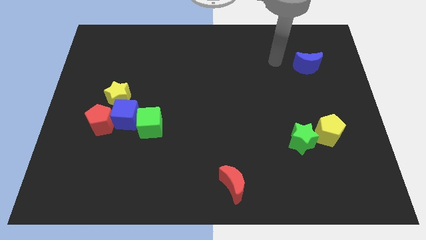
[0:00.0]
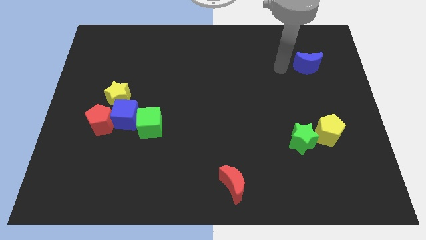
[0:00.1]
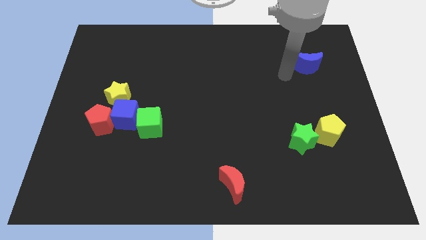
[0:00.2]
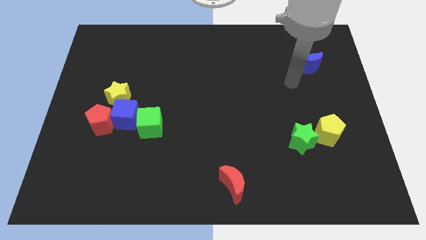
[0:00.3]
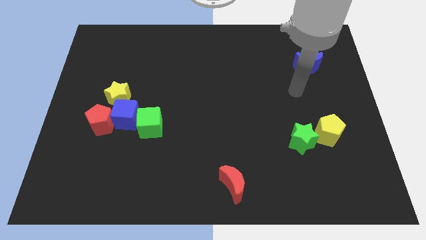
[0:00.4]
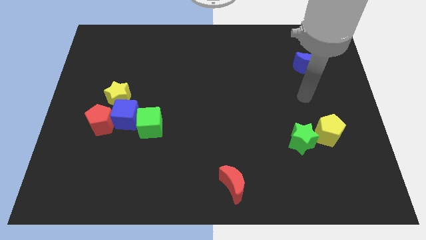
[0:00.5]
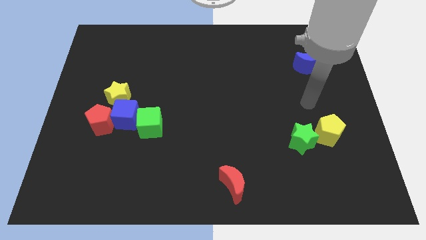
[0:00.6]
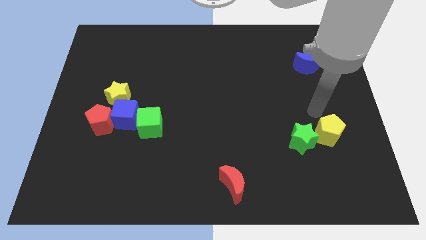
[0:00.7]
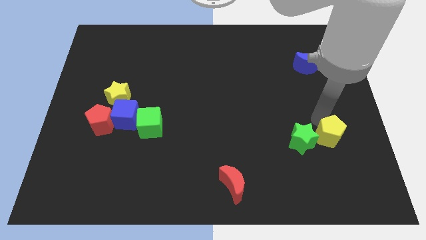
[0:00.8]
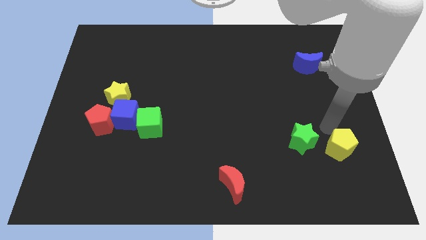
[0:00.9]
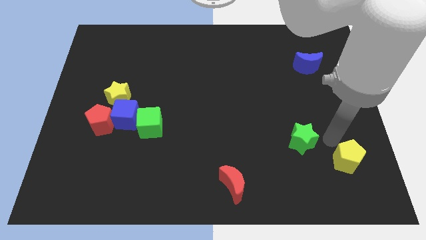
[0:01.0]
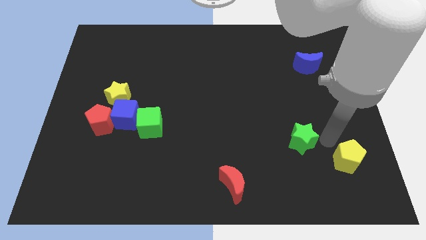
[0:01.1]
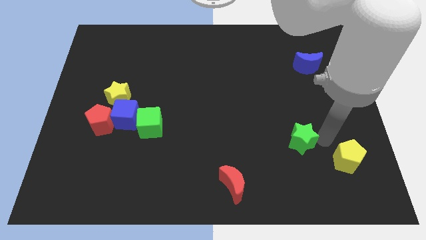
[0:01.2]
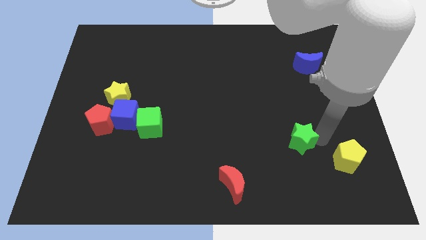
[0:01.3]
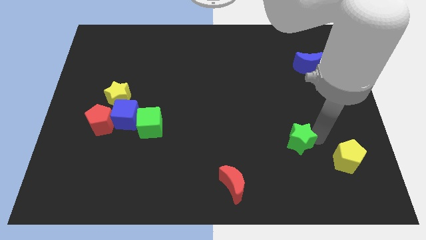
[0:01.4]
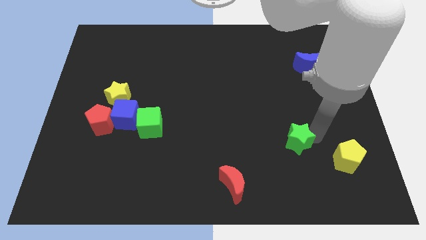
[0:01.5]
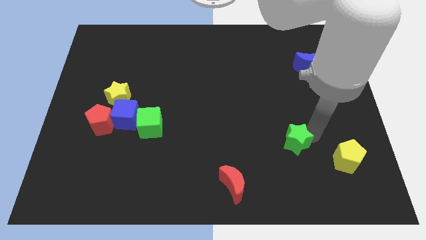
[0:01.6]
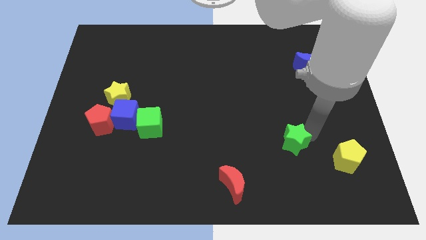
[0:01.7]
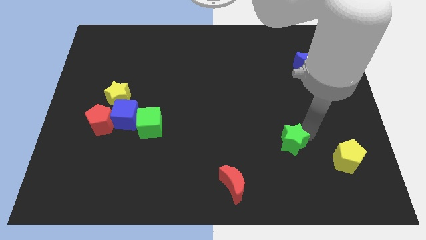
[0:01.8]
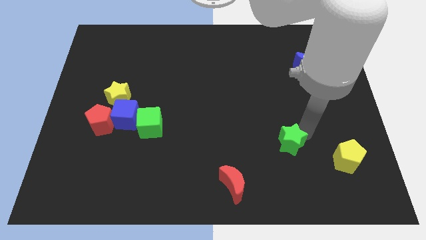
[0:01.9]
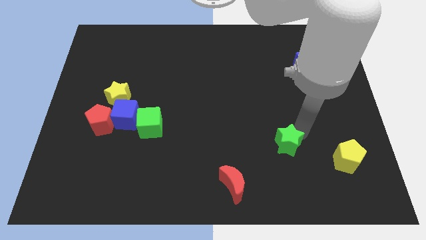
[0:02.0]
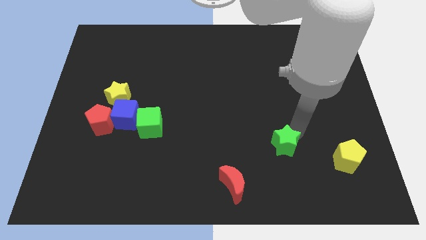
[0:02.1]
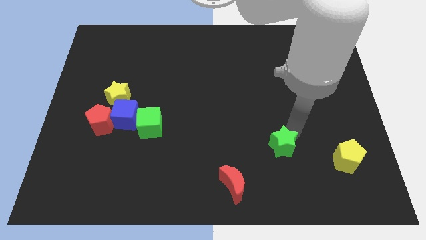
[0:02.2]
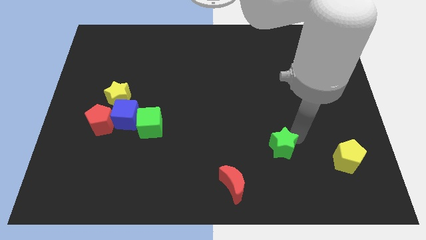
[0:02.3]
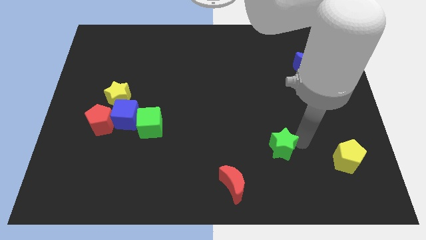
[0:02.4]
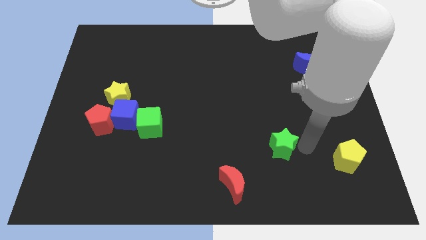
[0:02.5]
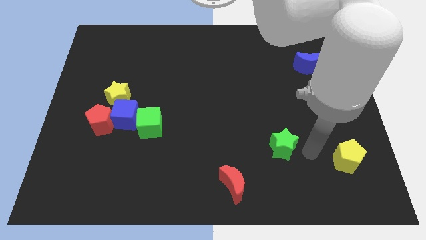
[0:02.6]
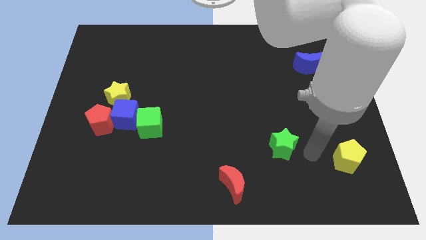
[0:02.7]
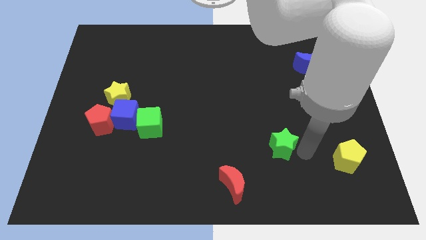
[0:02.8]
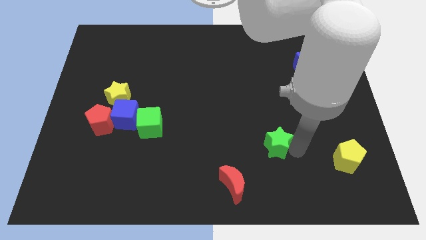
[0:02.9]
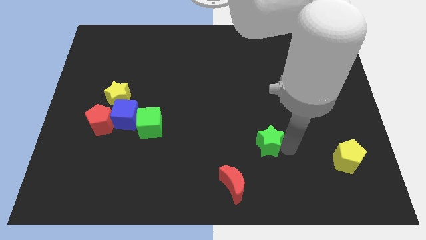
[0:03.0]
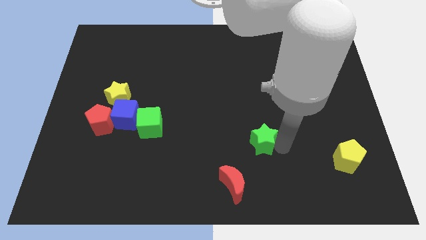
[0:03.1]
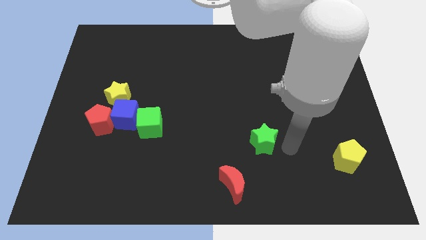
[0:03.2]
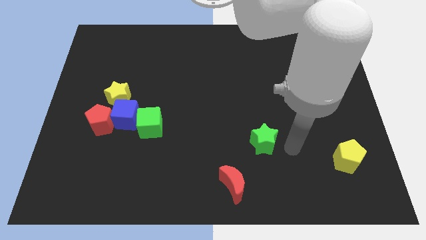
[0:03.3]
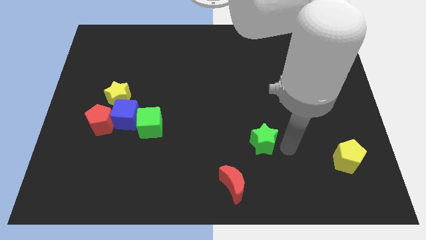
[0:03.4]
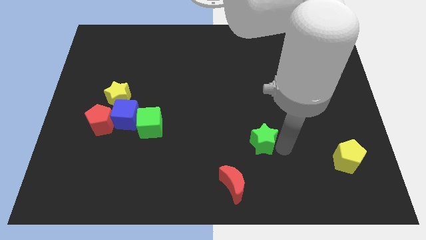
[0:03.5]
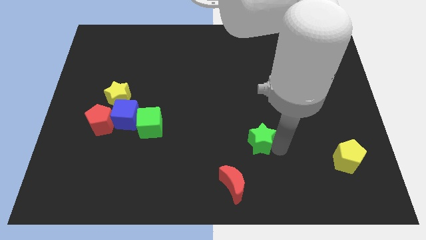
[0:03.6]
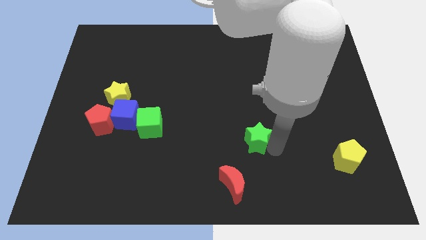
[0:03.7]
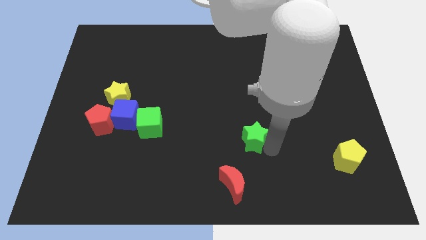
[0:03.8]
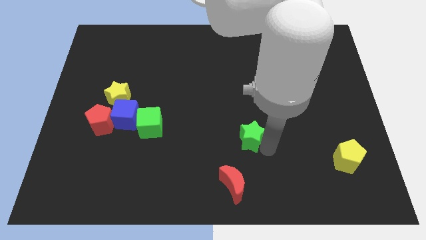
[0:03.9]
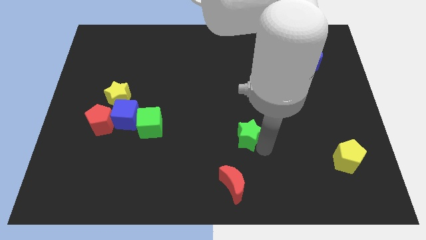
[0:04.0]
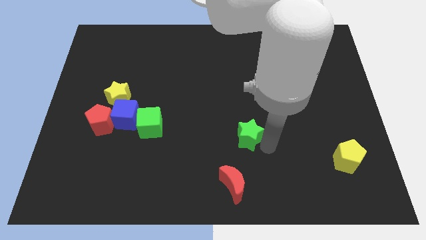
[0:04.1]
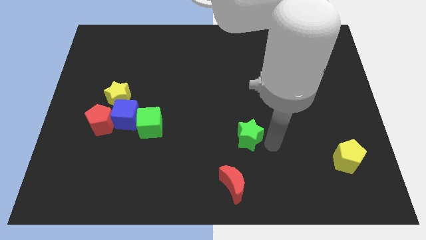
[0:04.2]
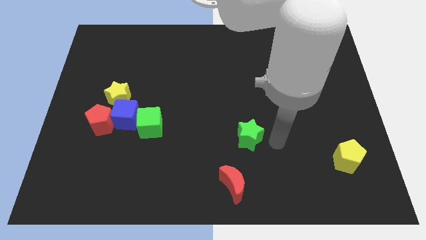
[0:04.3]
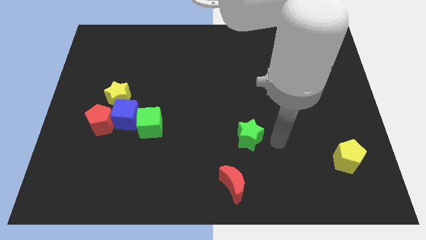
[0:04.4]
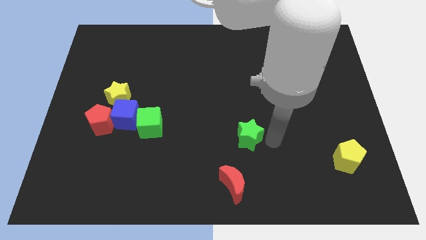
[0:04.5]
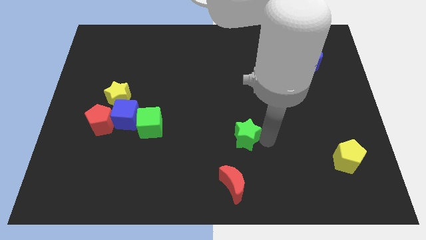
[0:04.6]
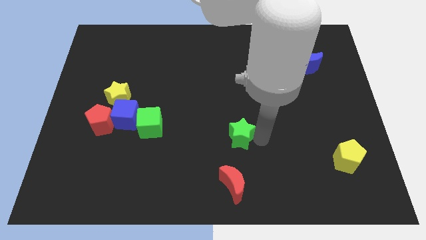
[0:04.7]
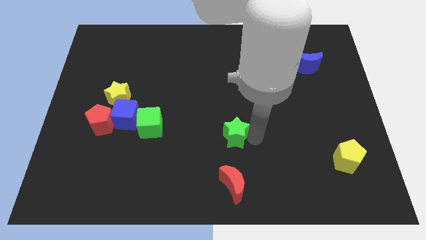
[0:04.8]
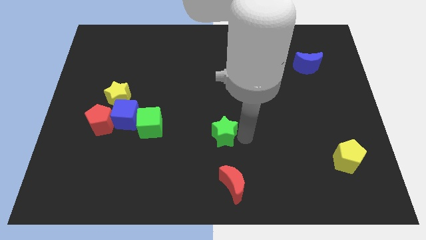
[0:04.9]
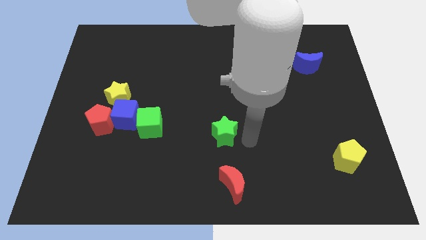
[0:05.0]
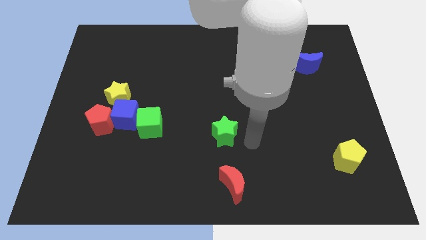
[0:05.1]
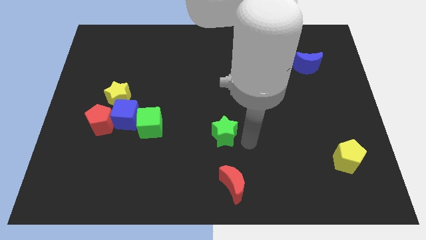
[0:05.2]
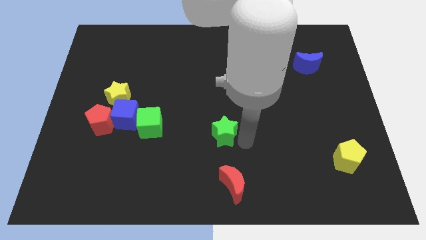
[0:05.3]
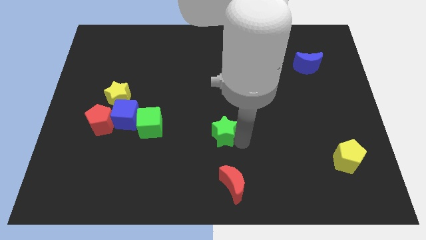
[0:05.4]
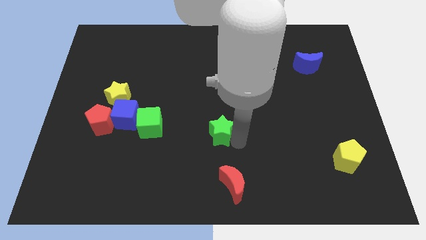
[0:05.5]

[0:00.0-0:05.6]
put the green star right of the green cube

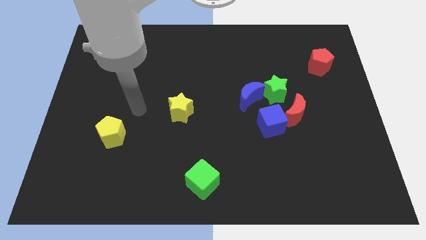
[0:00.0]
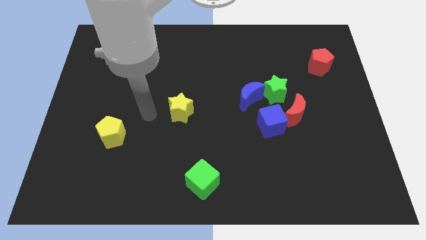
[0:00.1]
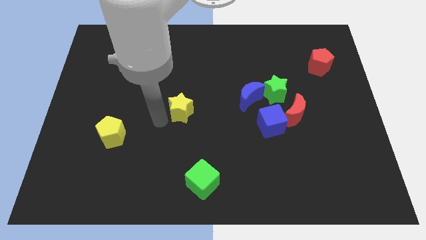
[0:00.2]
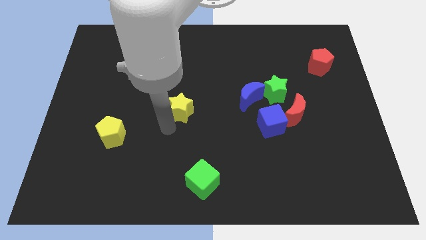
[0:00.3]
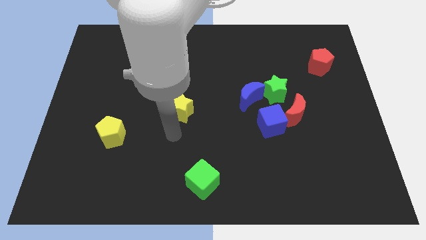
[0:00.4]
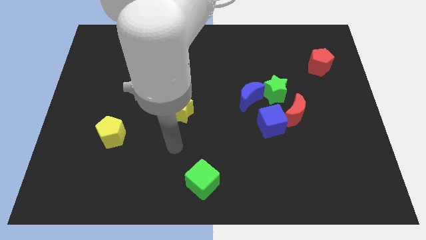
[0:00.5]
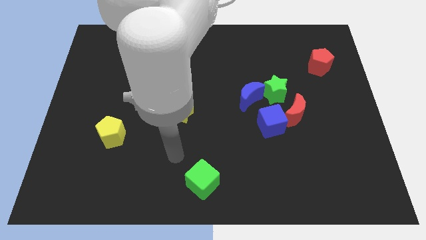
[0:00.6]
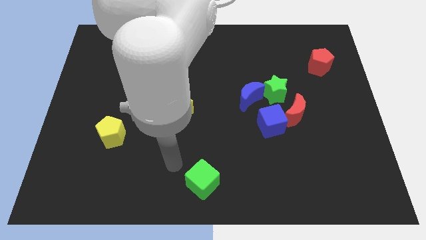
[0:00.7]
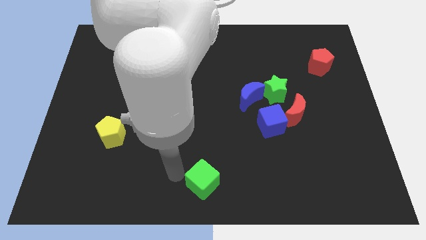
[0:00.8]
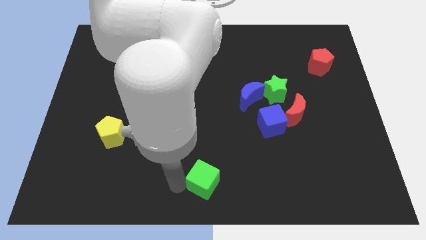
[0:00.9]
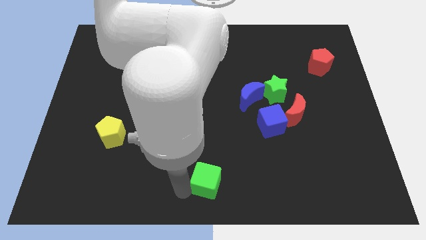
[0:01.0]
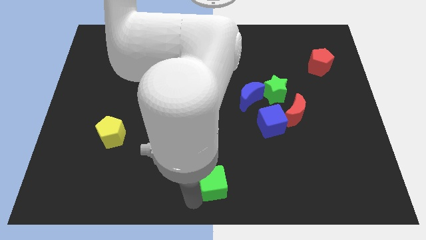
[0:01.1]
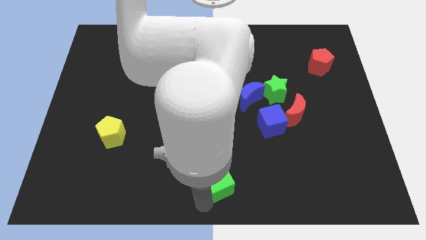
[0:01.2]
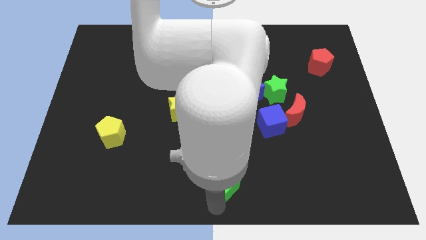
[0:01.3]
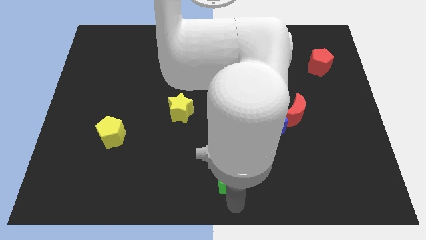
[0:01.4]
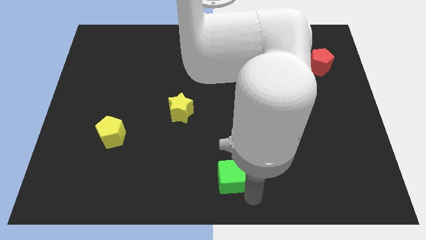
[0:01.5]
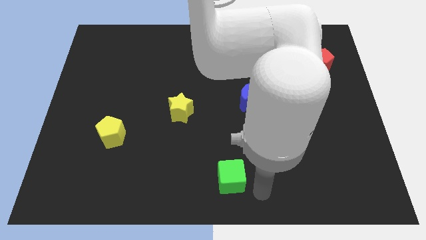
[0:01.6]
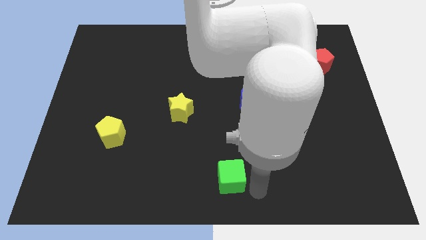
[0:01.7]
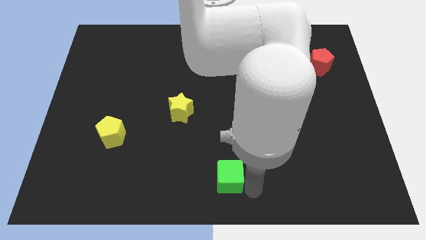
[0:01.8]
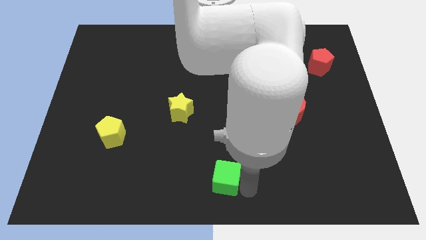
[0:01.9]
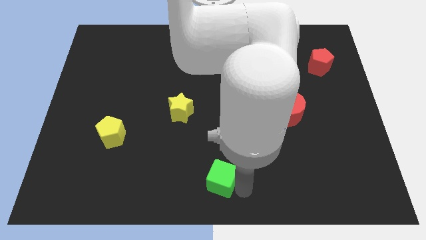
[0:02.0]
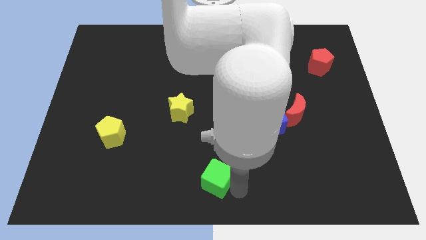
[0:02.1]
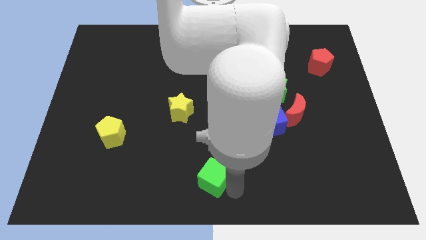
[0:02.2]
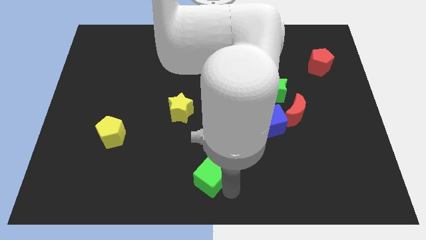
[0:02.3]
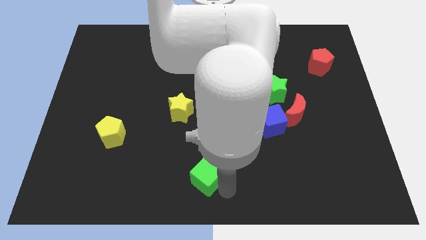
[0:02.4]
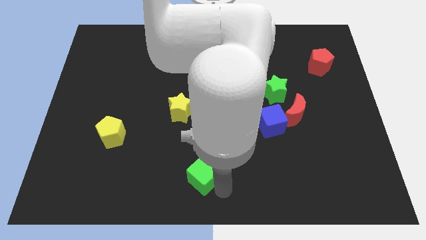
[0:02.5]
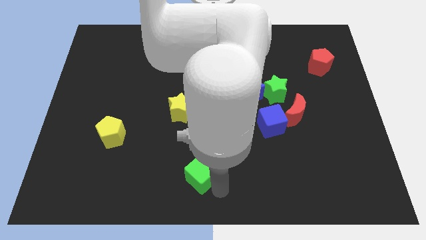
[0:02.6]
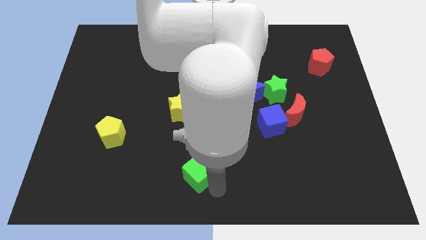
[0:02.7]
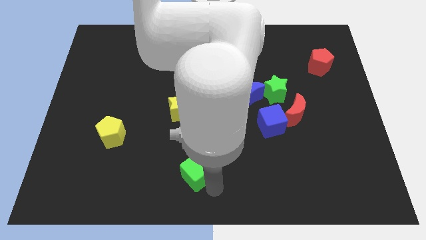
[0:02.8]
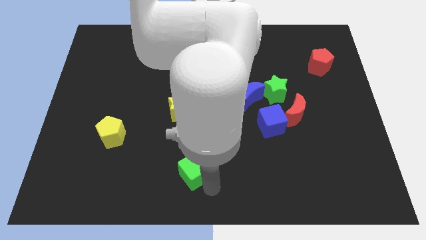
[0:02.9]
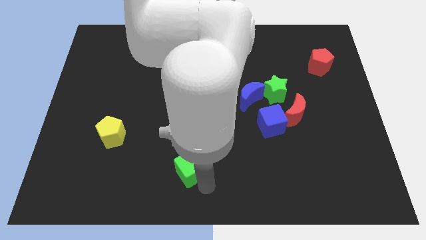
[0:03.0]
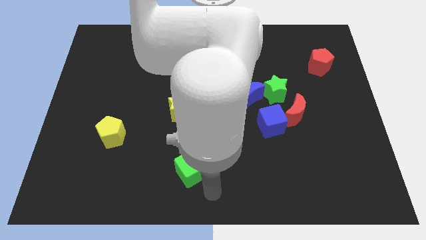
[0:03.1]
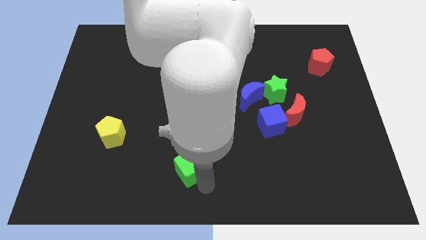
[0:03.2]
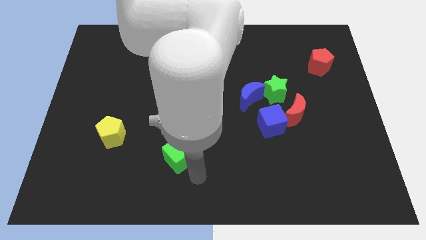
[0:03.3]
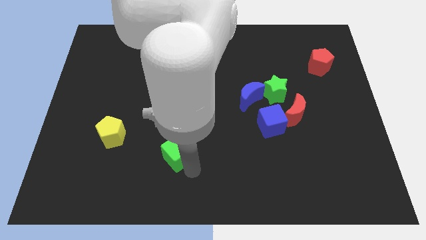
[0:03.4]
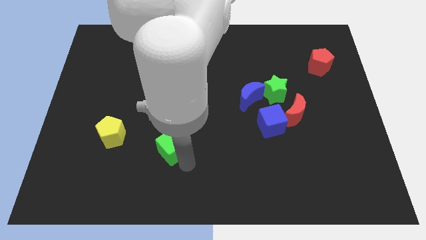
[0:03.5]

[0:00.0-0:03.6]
slide the green cube to the right of the yellow pentagon
